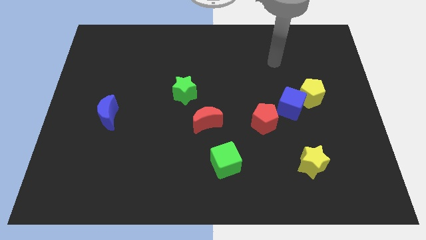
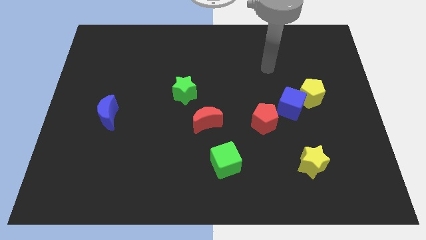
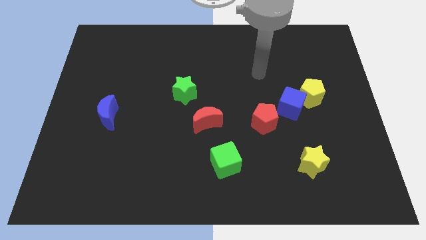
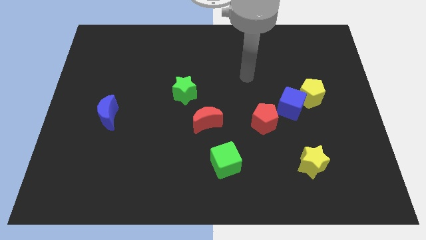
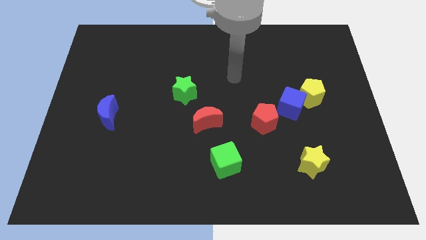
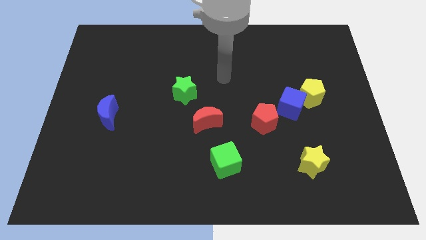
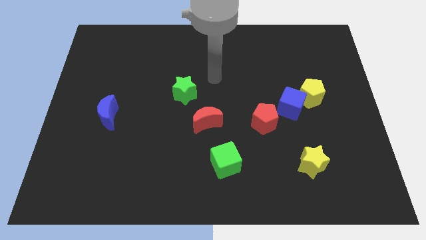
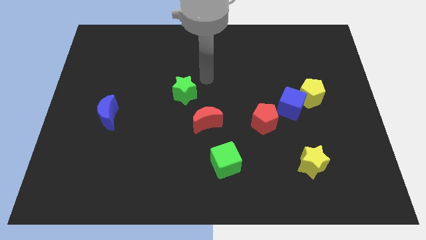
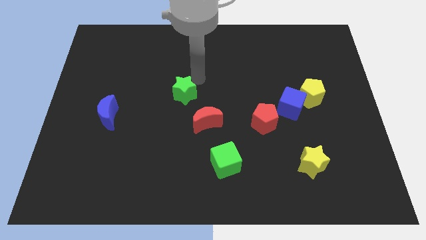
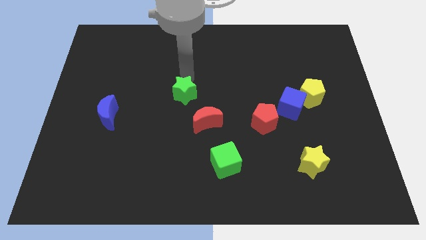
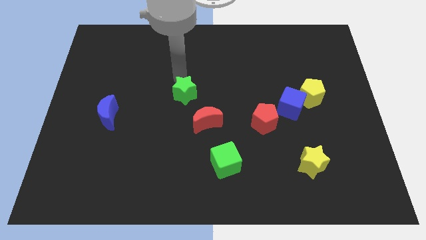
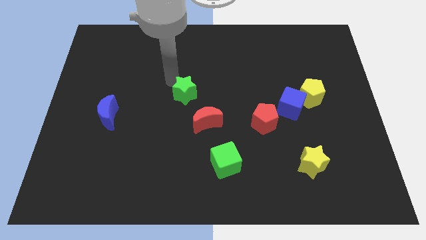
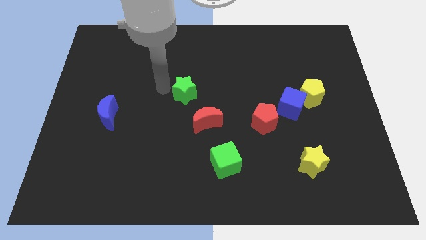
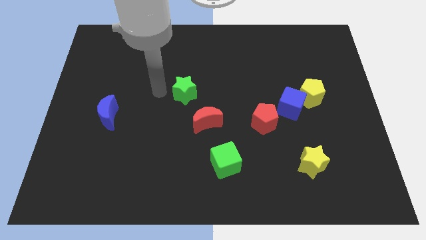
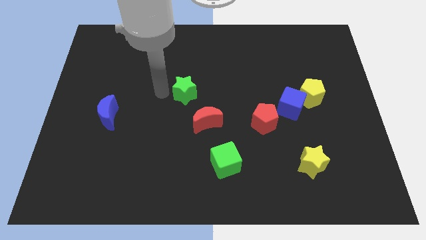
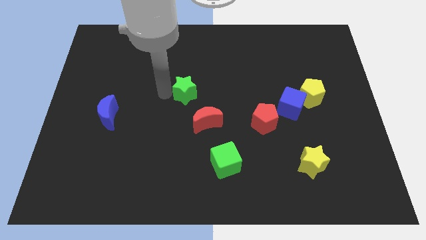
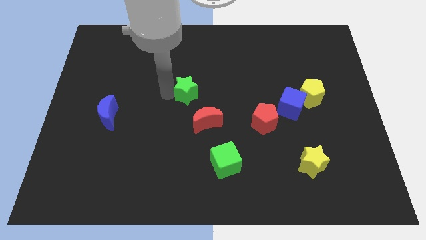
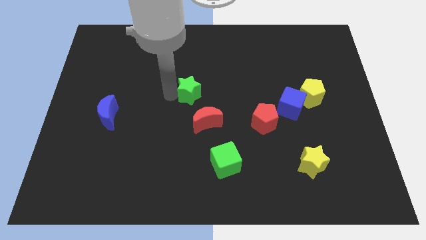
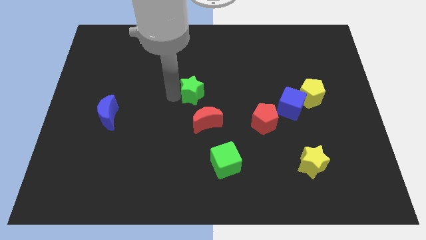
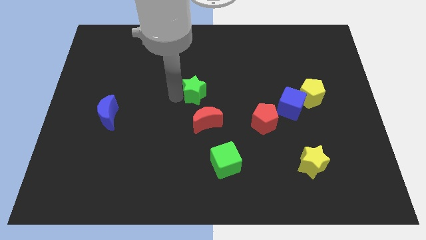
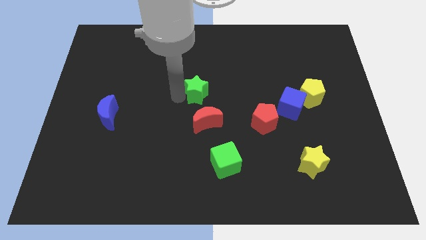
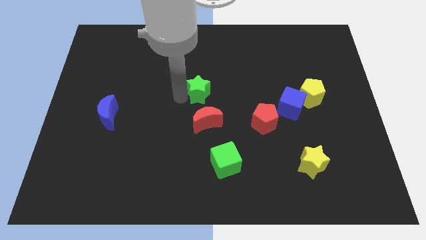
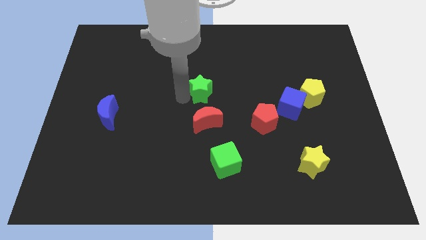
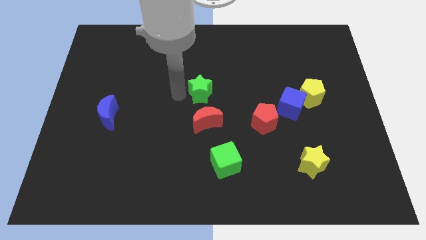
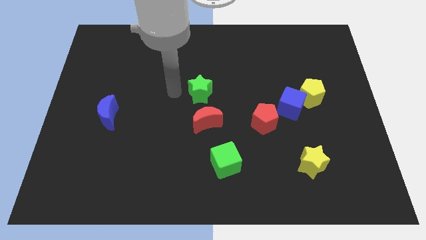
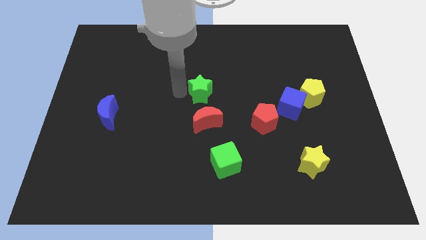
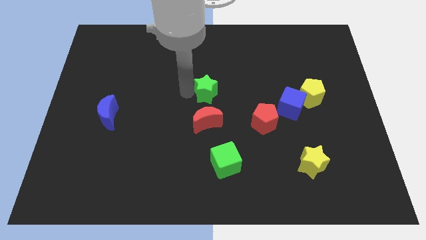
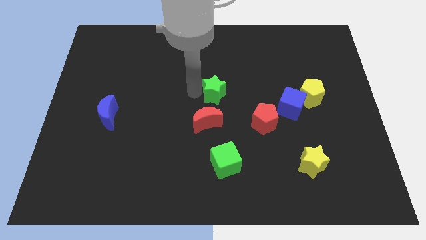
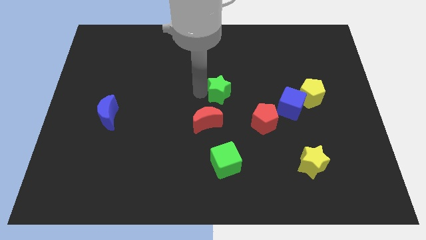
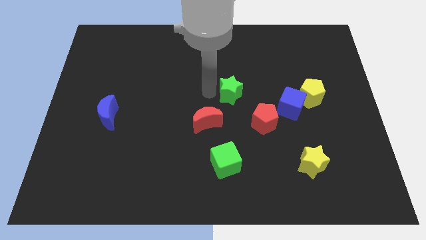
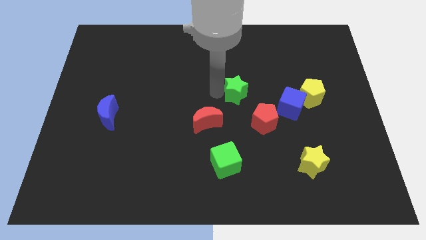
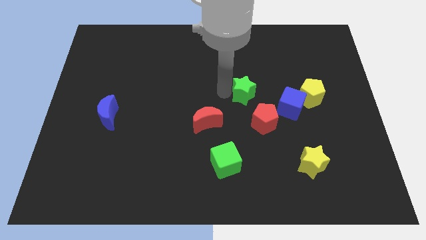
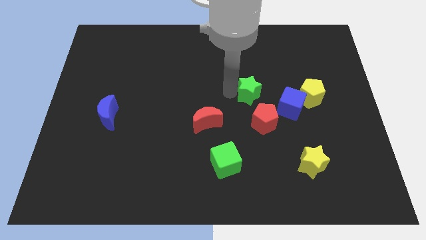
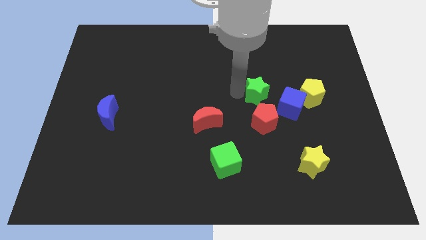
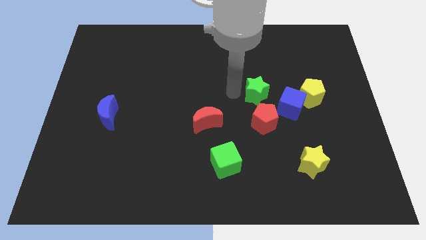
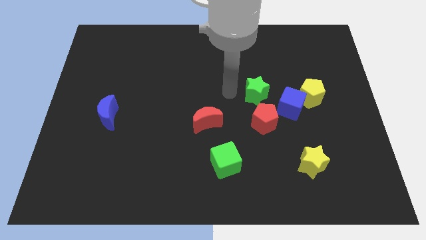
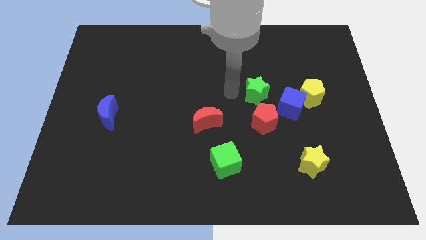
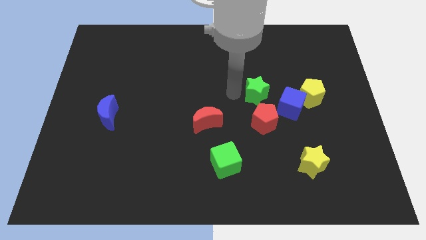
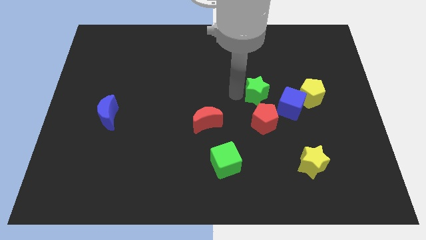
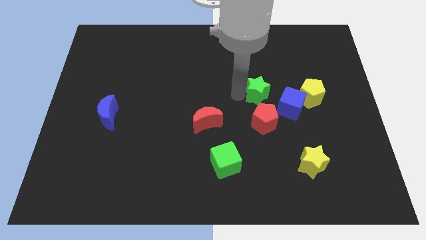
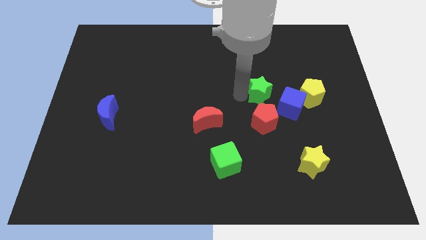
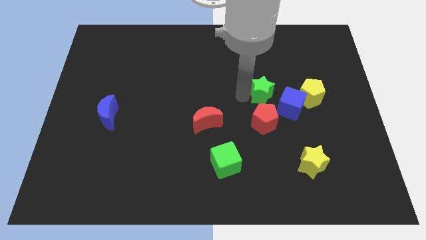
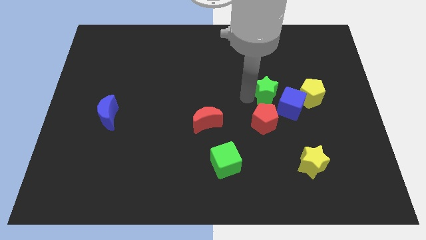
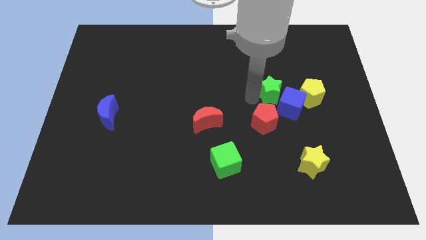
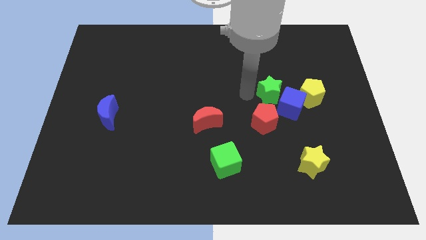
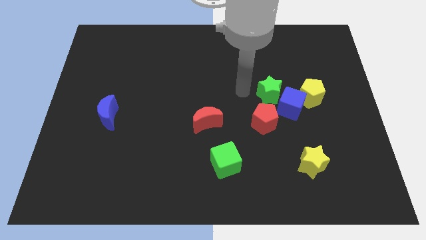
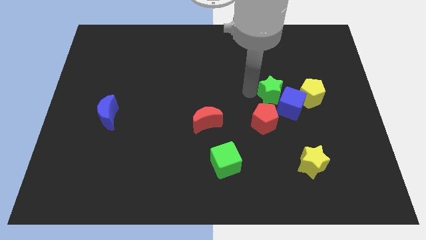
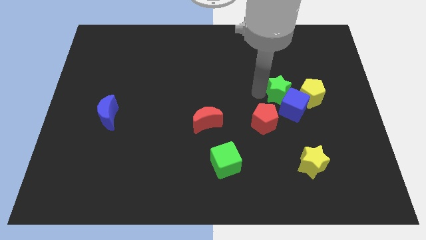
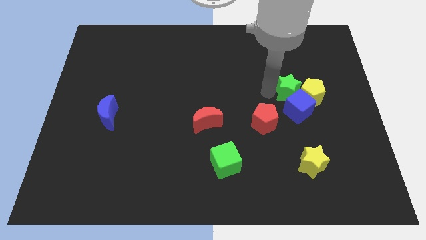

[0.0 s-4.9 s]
slide the green star towards the yellow pentagon

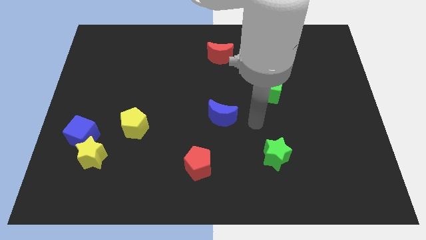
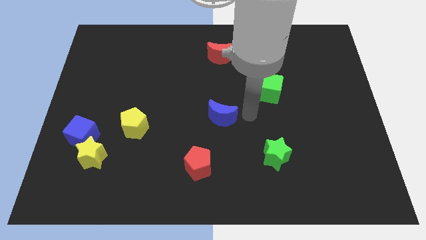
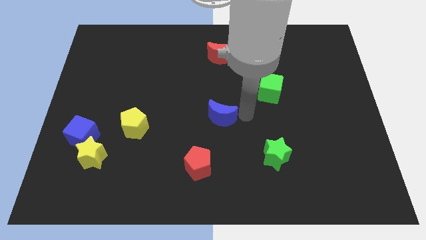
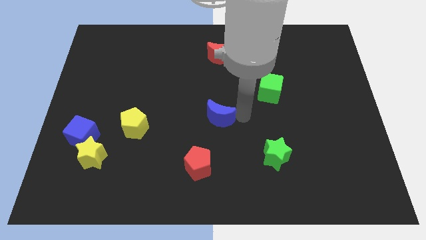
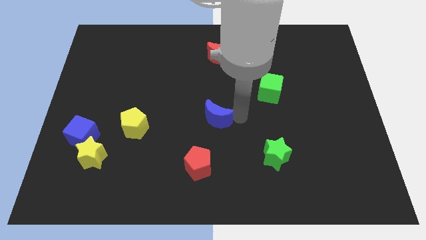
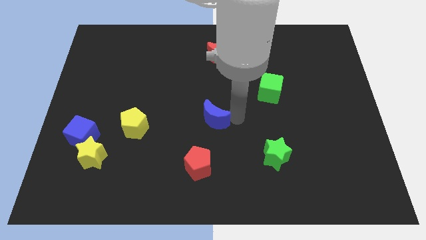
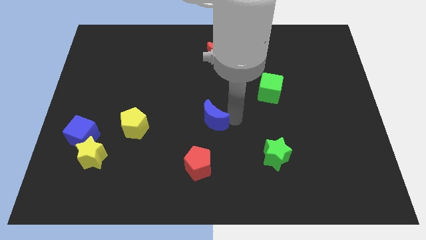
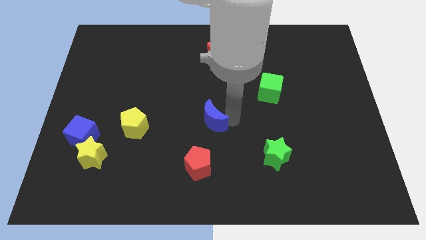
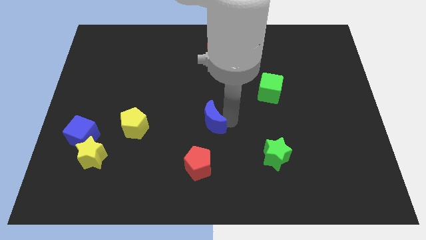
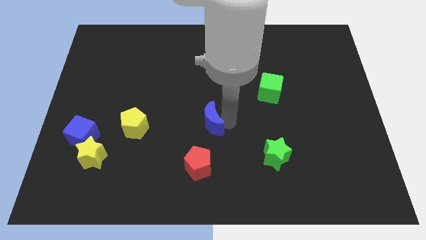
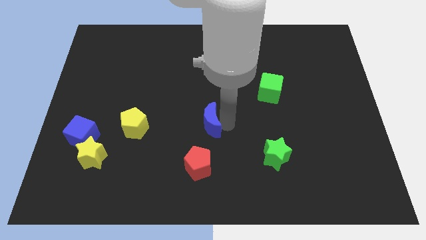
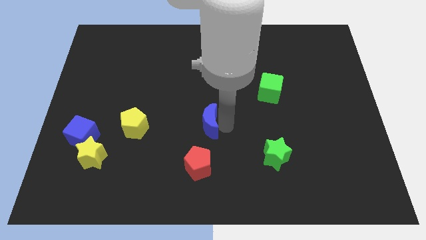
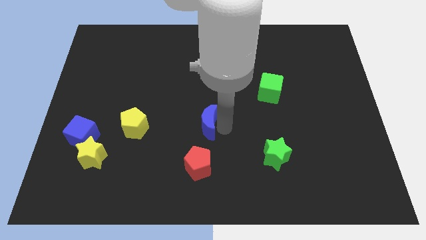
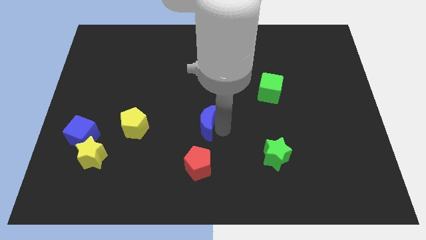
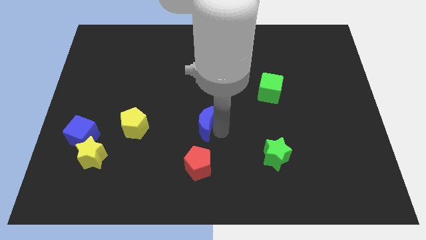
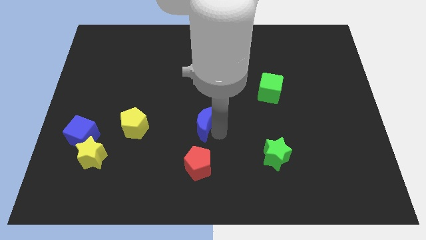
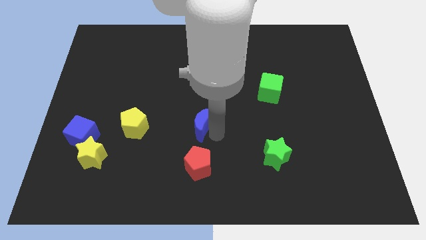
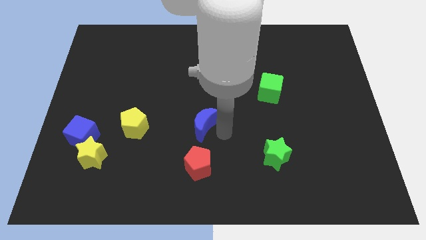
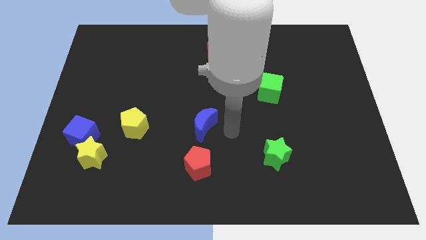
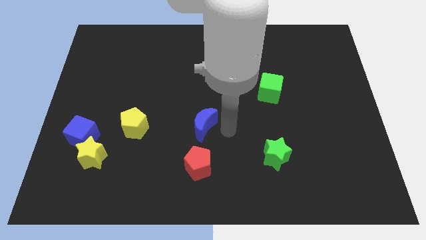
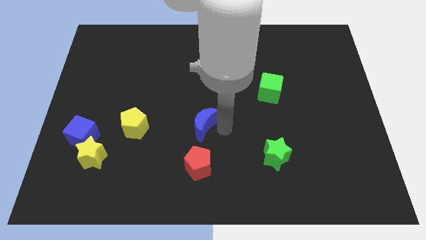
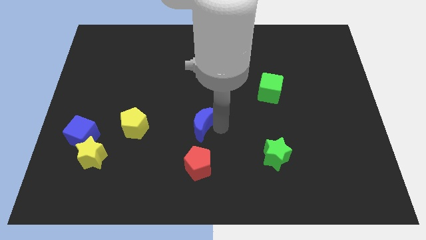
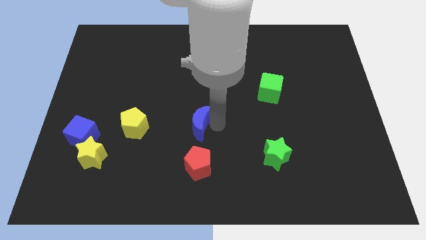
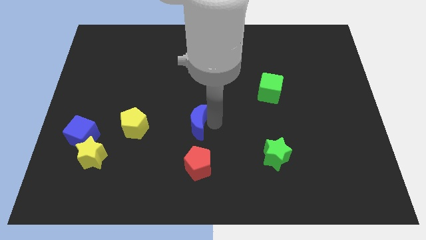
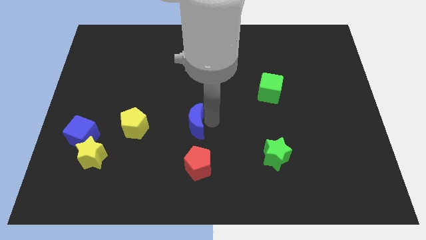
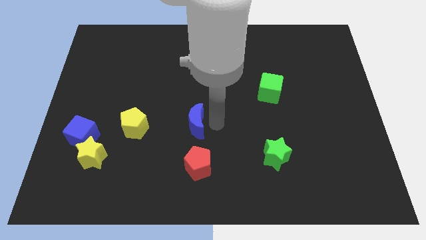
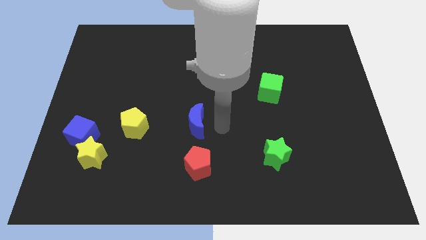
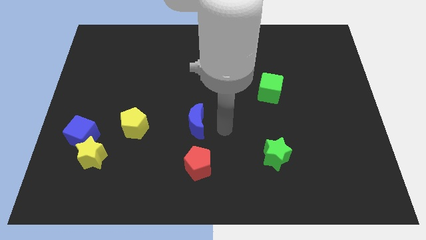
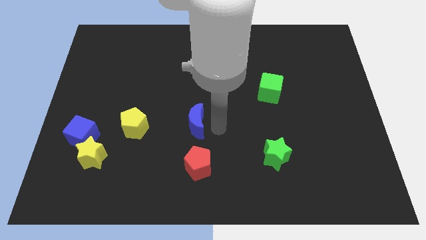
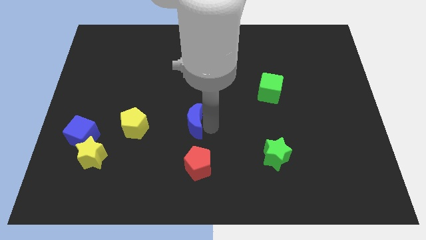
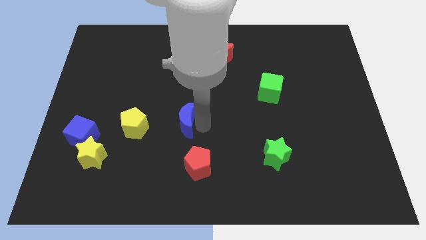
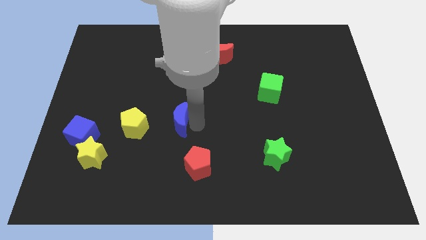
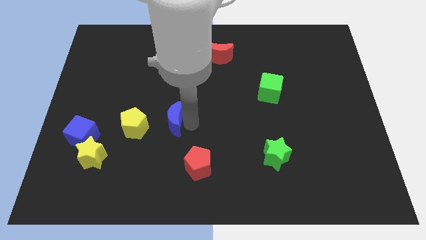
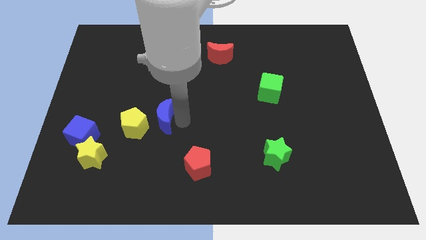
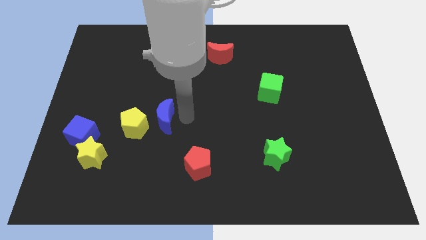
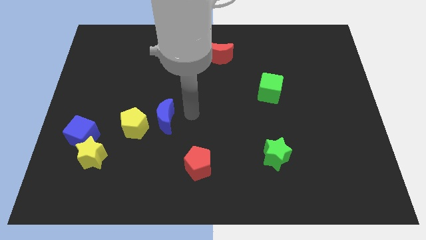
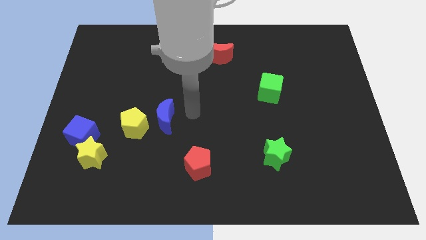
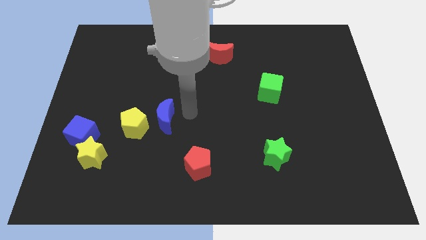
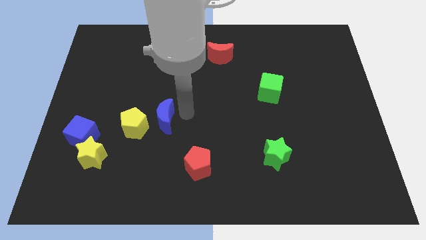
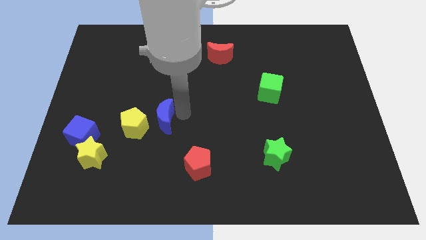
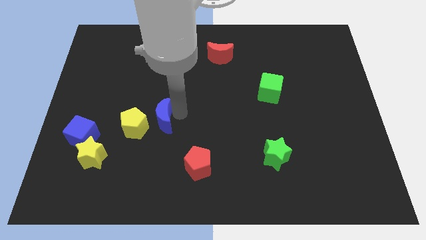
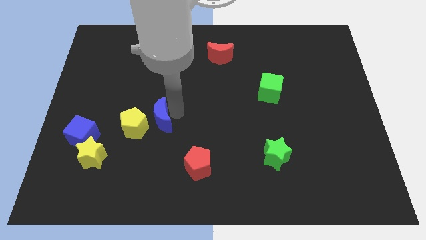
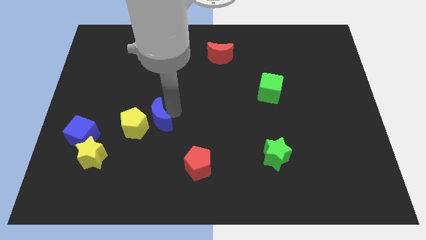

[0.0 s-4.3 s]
put the blue moon next to the yellow pentagon
